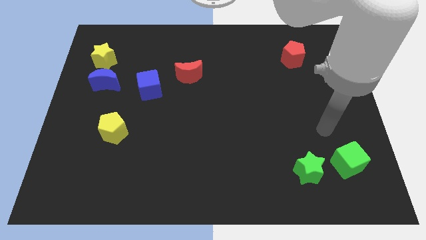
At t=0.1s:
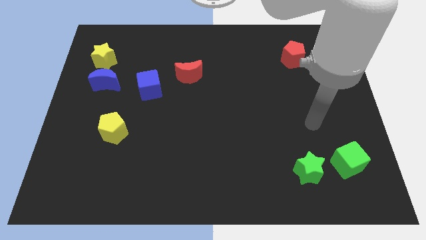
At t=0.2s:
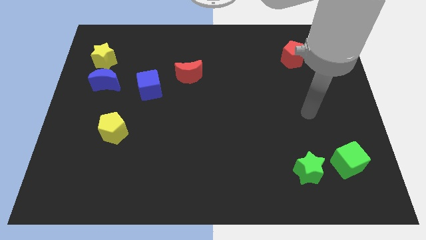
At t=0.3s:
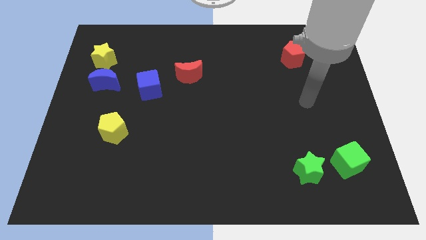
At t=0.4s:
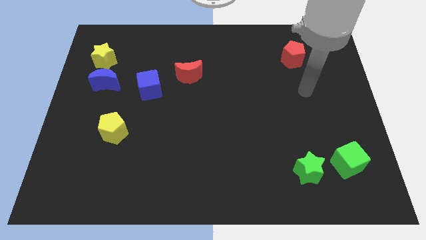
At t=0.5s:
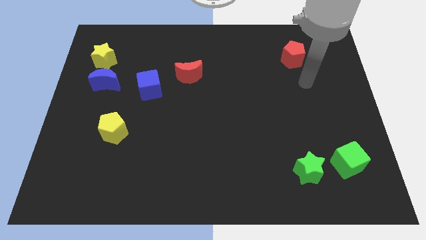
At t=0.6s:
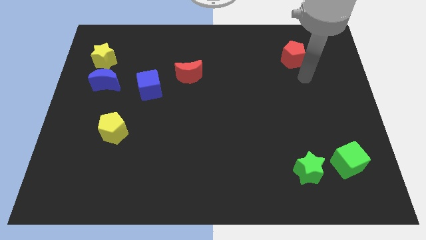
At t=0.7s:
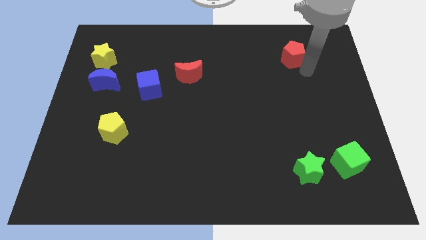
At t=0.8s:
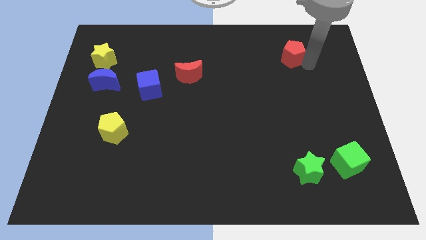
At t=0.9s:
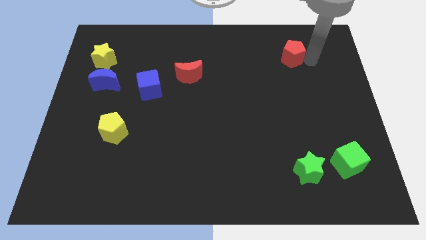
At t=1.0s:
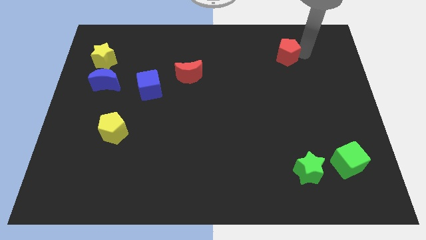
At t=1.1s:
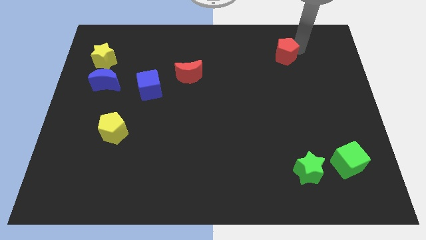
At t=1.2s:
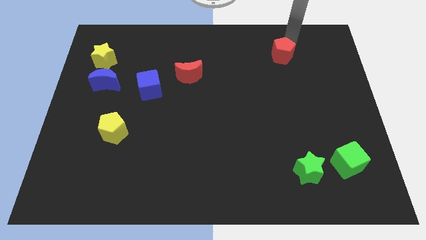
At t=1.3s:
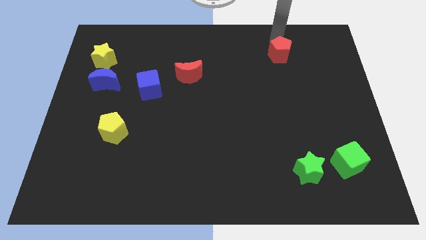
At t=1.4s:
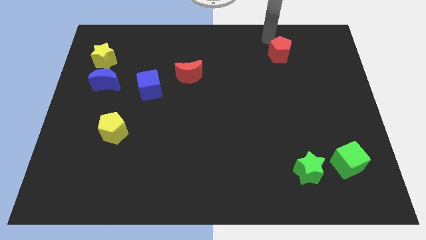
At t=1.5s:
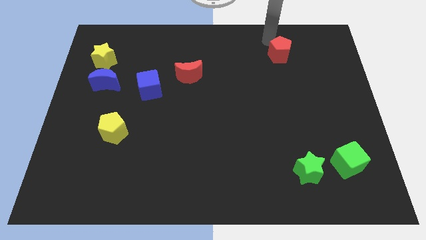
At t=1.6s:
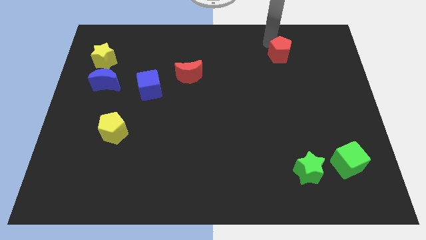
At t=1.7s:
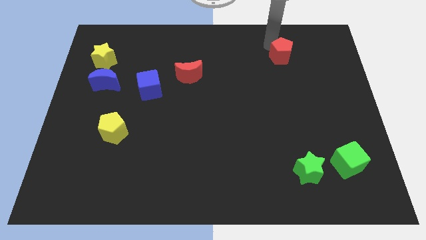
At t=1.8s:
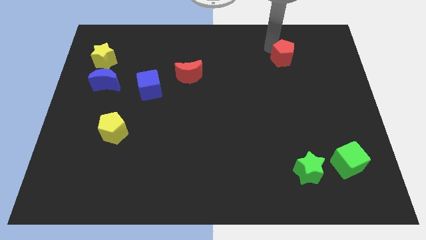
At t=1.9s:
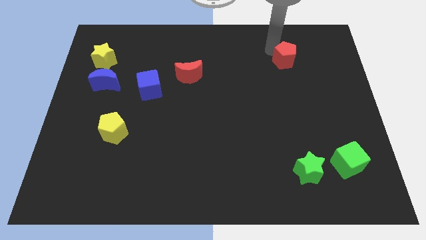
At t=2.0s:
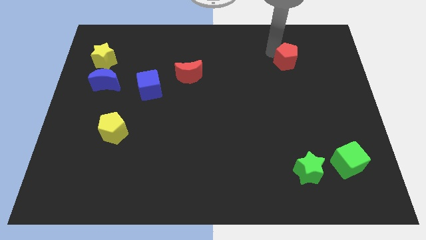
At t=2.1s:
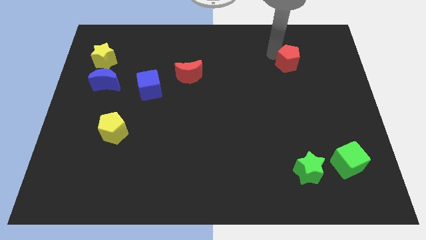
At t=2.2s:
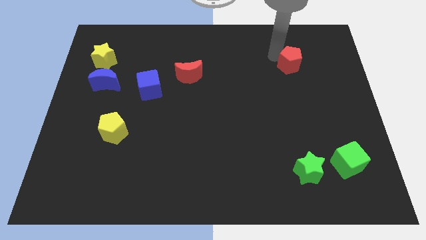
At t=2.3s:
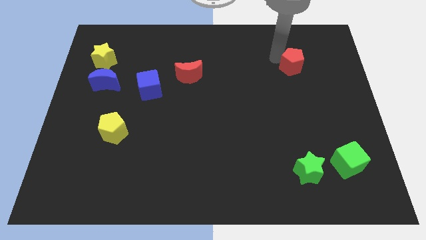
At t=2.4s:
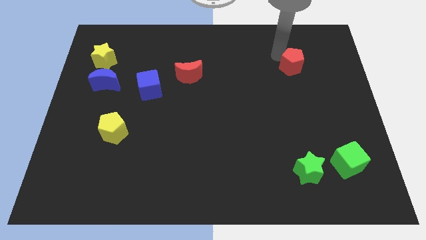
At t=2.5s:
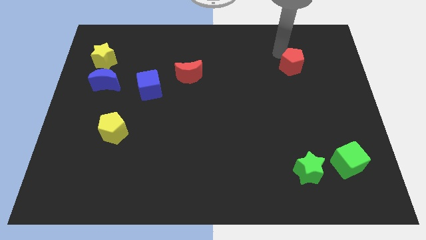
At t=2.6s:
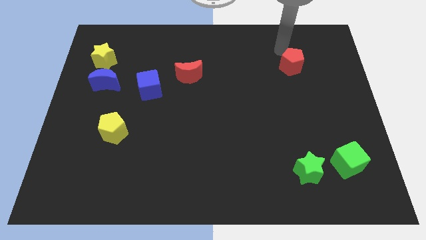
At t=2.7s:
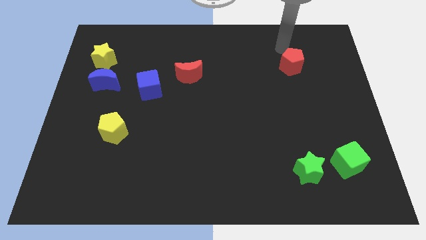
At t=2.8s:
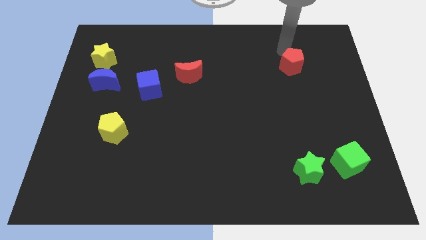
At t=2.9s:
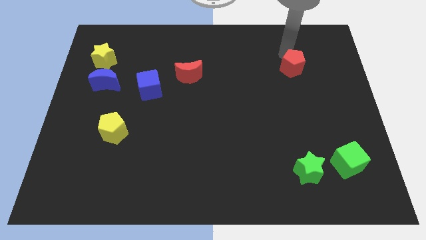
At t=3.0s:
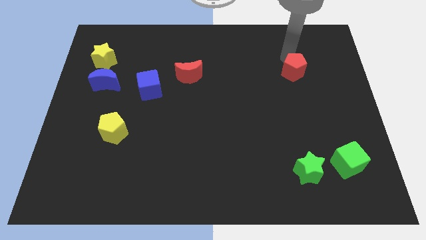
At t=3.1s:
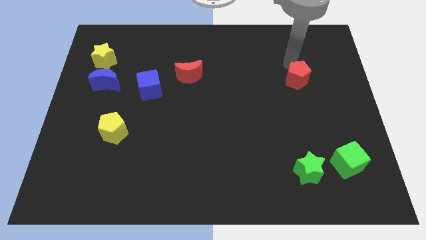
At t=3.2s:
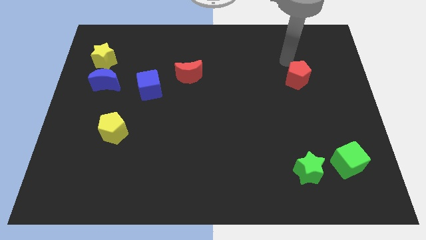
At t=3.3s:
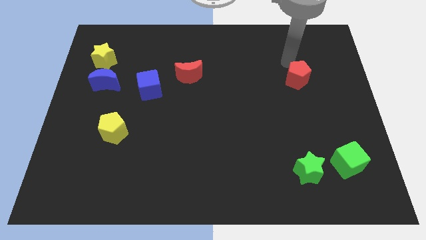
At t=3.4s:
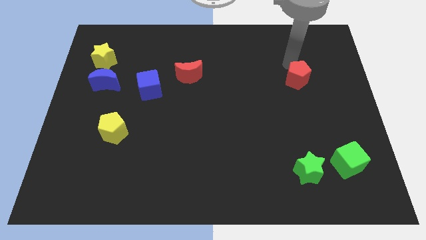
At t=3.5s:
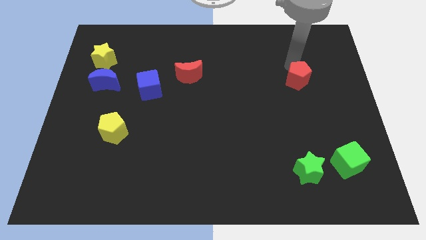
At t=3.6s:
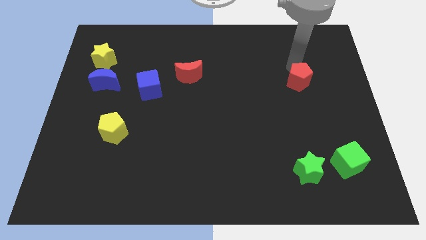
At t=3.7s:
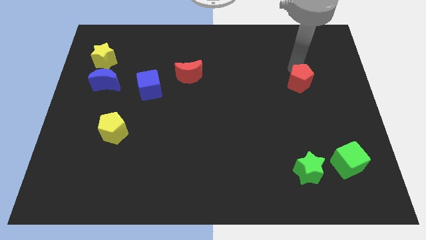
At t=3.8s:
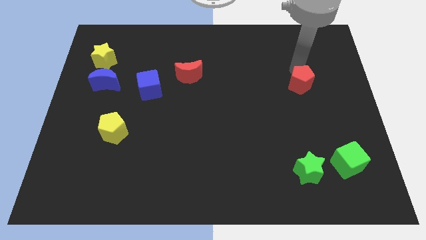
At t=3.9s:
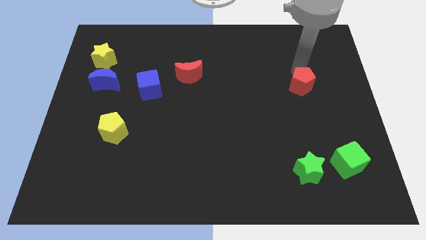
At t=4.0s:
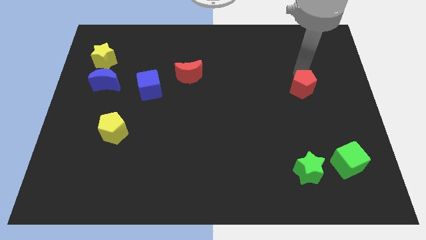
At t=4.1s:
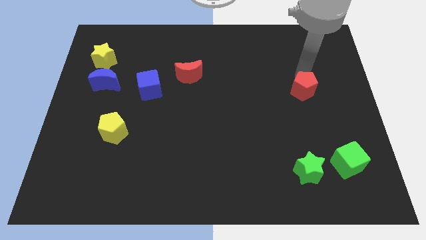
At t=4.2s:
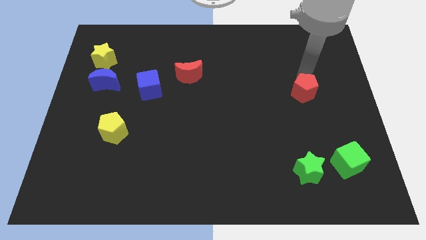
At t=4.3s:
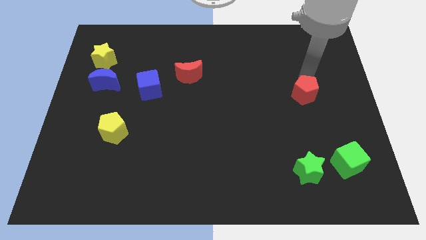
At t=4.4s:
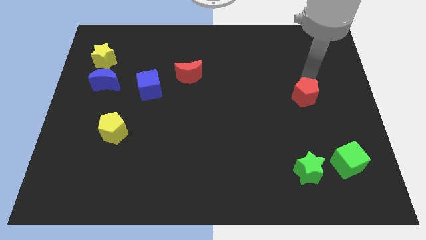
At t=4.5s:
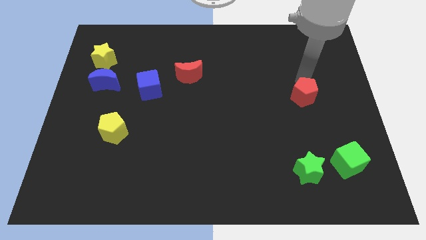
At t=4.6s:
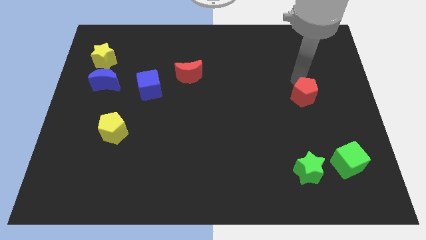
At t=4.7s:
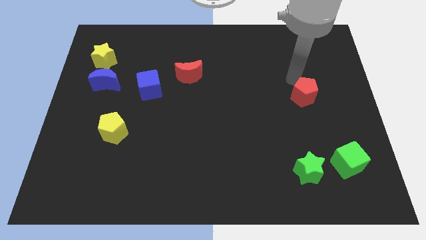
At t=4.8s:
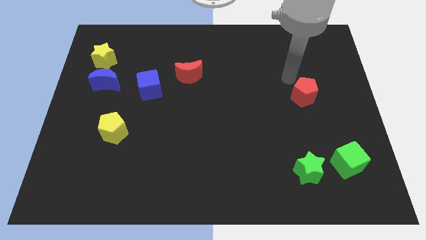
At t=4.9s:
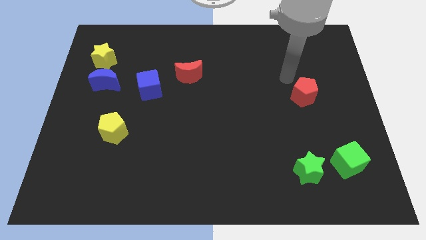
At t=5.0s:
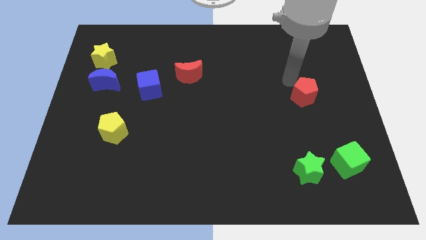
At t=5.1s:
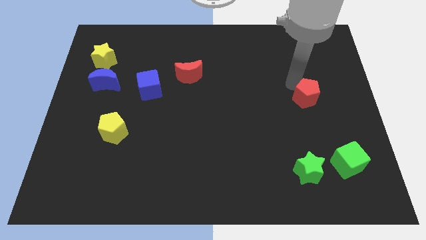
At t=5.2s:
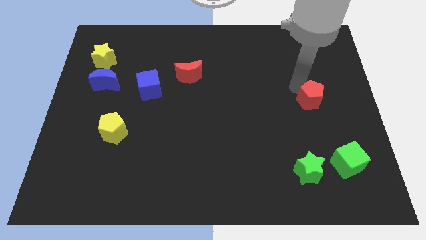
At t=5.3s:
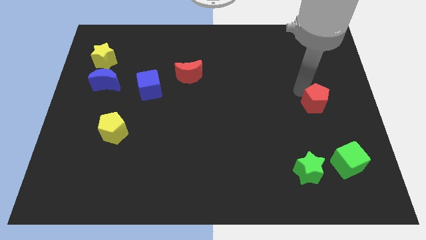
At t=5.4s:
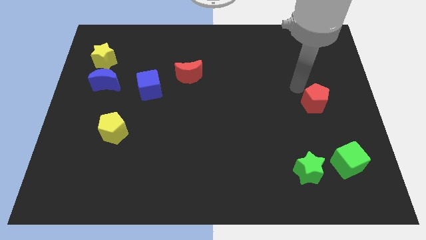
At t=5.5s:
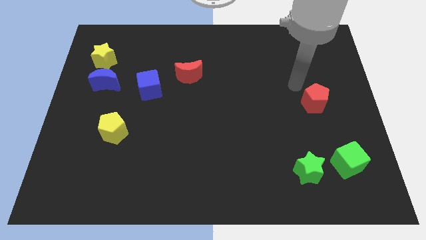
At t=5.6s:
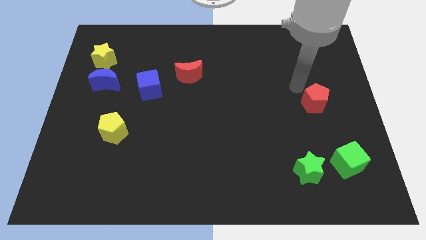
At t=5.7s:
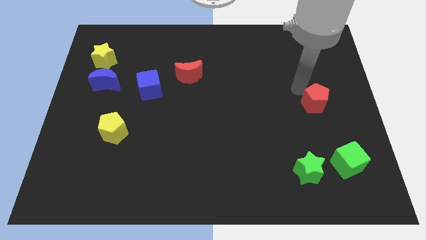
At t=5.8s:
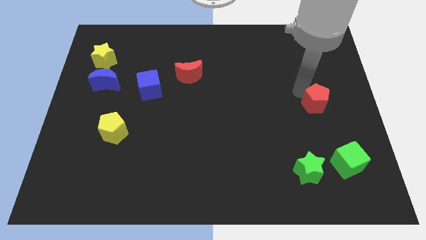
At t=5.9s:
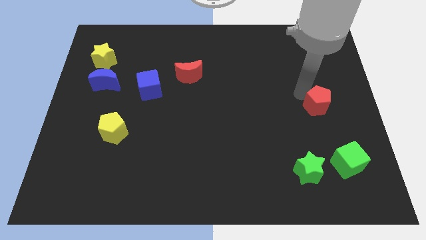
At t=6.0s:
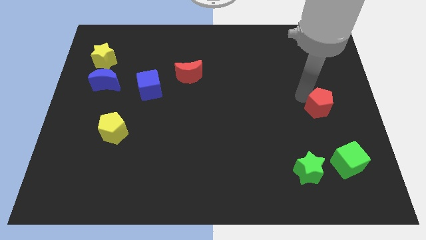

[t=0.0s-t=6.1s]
put the red pentagon to the top side of the green cube

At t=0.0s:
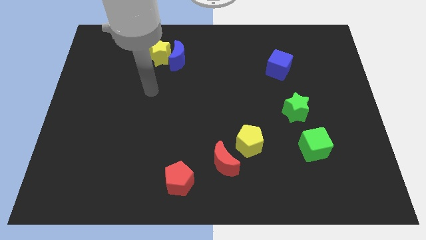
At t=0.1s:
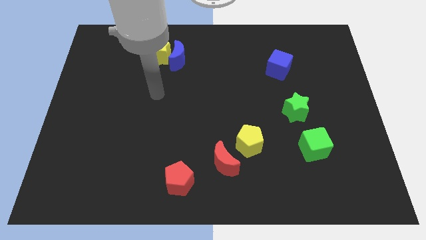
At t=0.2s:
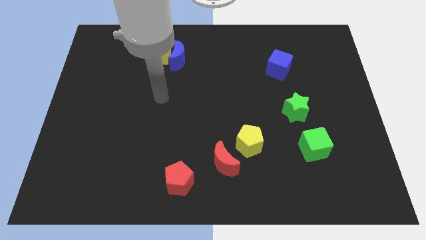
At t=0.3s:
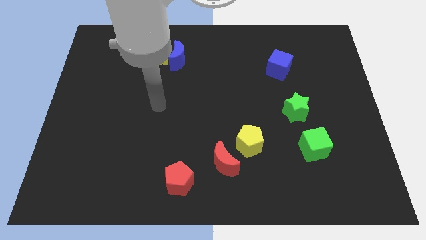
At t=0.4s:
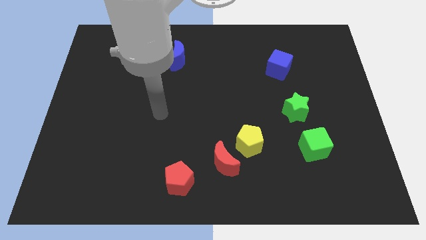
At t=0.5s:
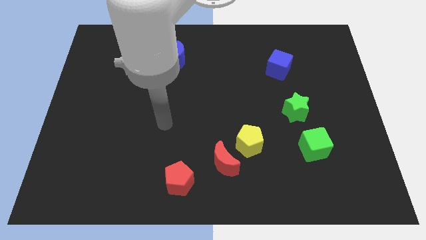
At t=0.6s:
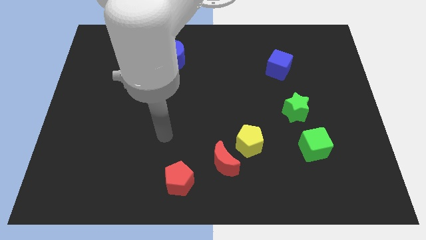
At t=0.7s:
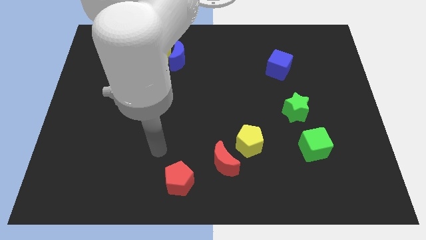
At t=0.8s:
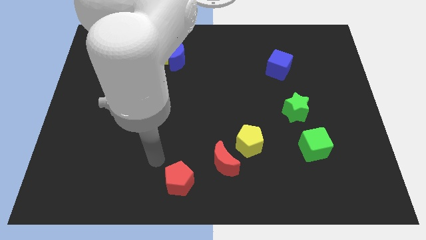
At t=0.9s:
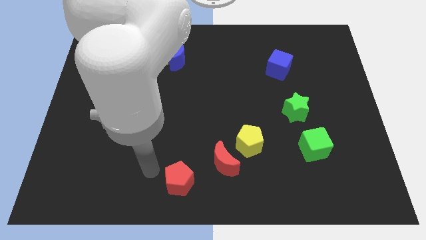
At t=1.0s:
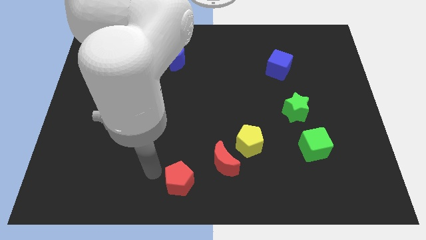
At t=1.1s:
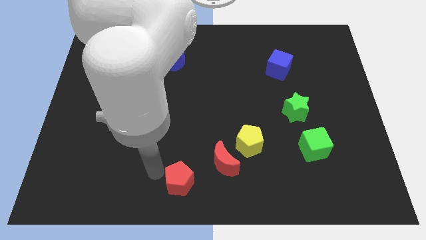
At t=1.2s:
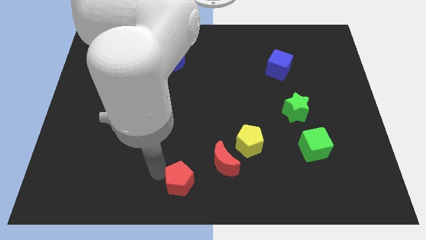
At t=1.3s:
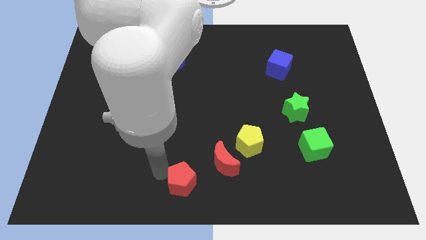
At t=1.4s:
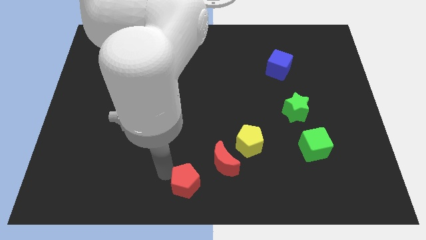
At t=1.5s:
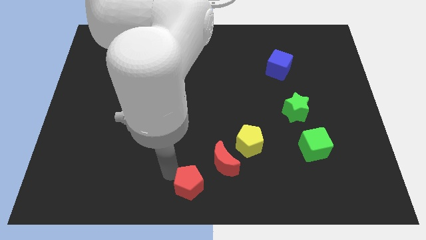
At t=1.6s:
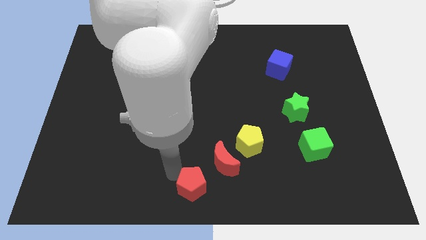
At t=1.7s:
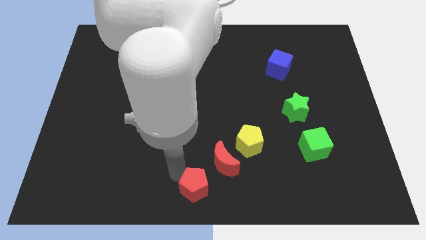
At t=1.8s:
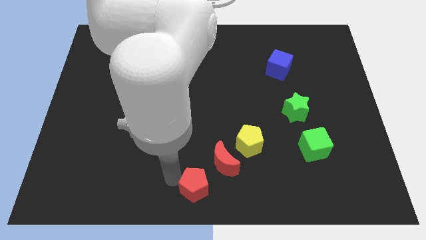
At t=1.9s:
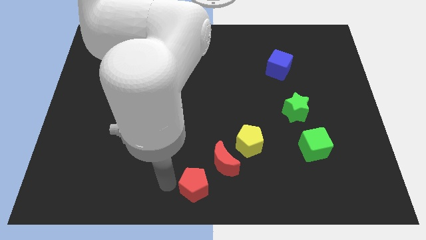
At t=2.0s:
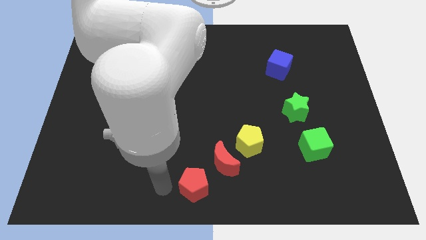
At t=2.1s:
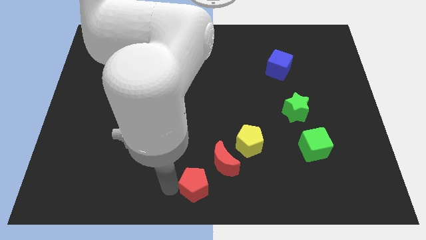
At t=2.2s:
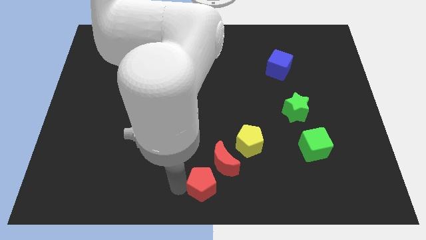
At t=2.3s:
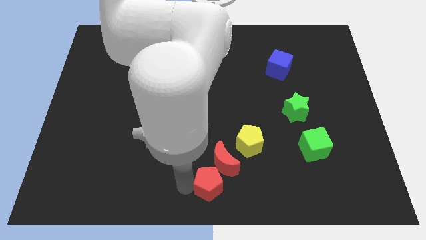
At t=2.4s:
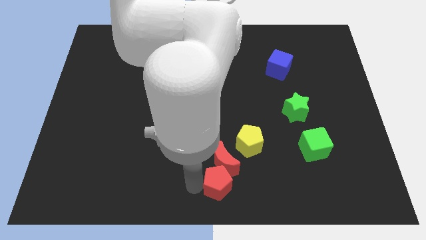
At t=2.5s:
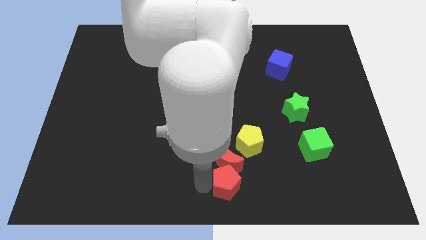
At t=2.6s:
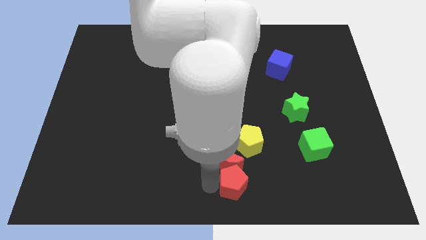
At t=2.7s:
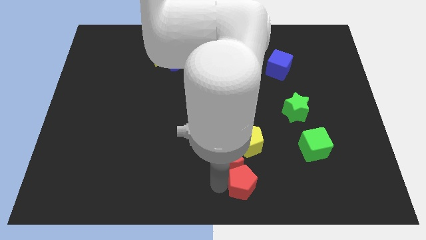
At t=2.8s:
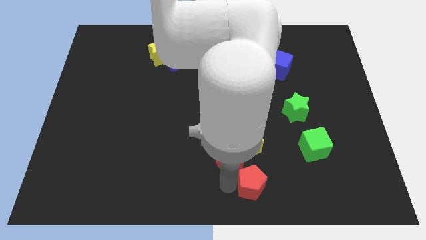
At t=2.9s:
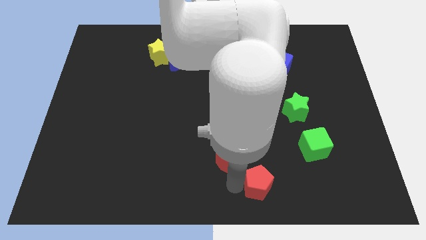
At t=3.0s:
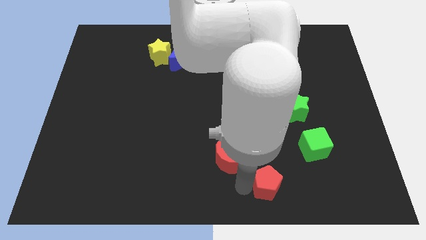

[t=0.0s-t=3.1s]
put the red pentagon diagonally down and to the right of the yellow pentagon
